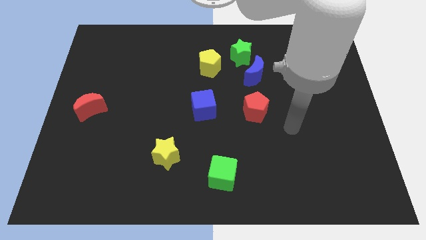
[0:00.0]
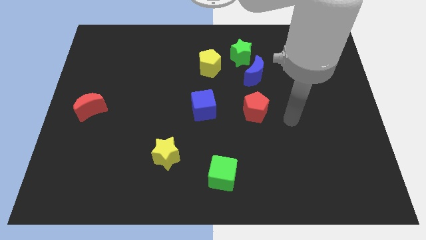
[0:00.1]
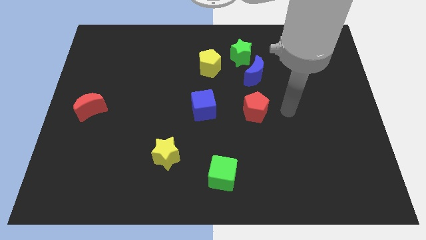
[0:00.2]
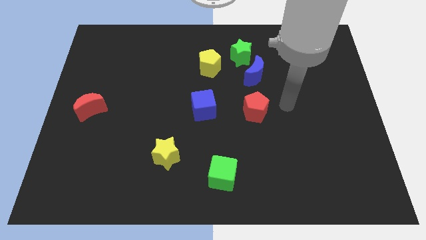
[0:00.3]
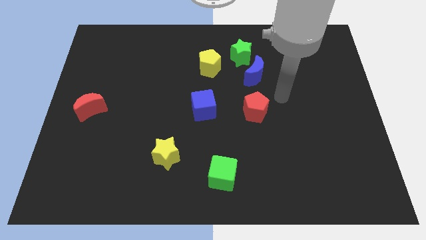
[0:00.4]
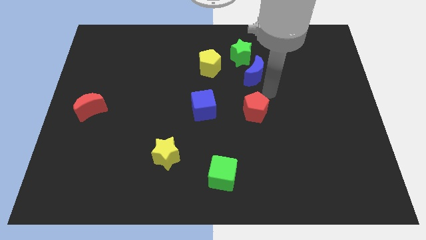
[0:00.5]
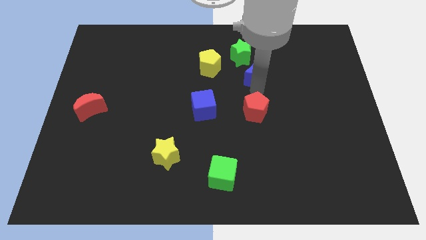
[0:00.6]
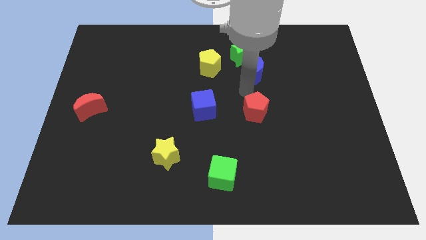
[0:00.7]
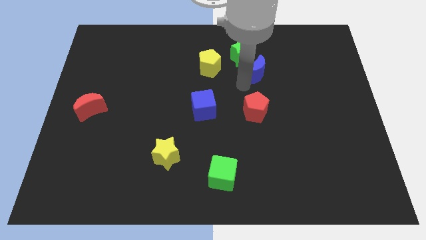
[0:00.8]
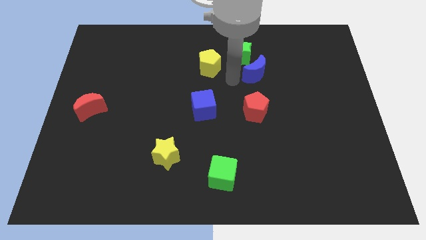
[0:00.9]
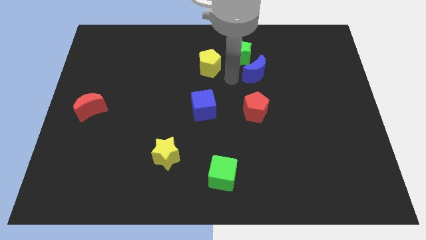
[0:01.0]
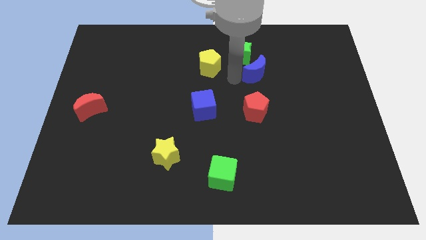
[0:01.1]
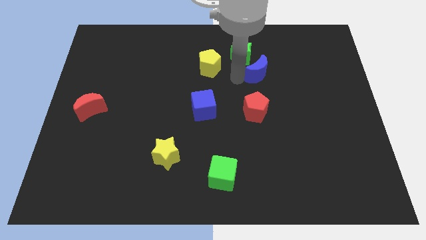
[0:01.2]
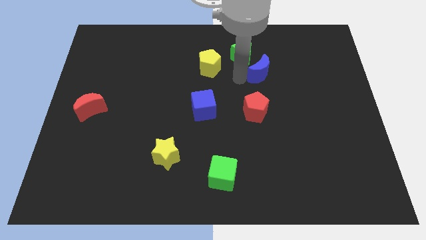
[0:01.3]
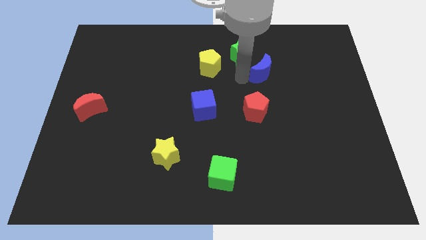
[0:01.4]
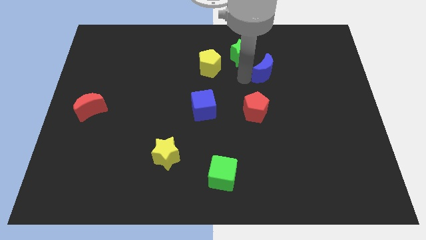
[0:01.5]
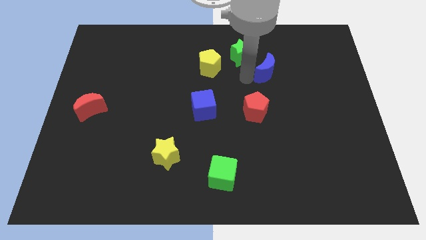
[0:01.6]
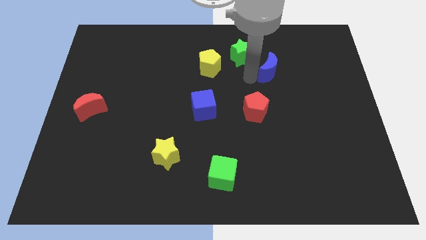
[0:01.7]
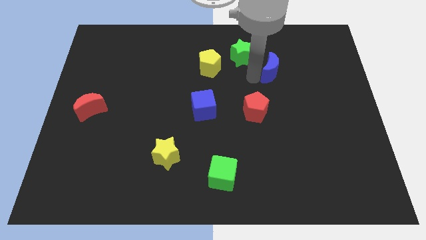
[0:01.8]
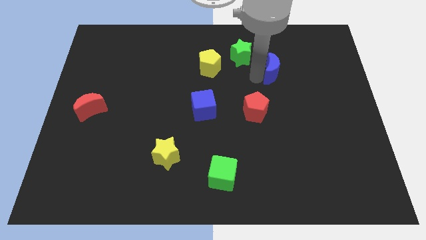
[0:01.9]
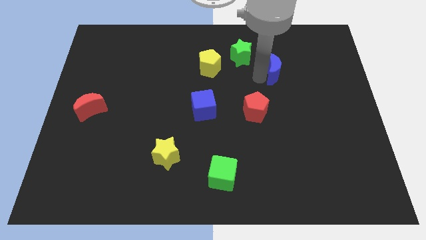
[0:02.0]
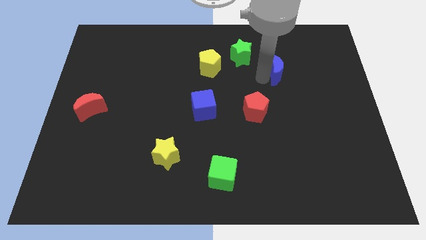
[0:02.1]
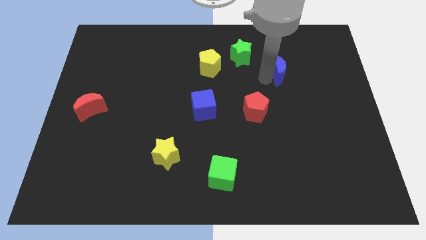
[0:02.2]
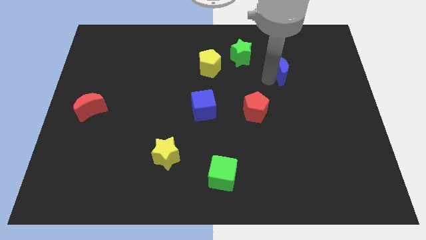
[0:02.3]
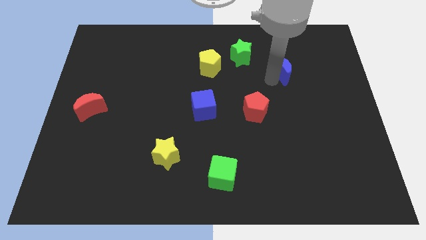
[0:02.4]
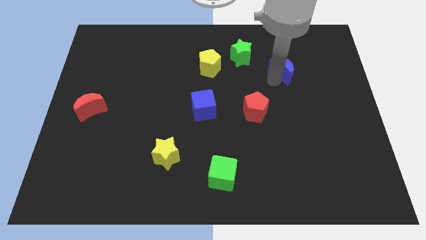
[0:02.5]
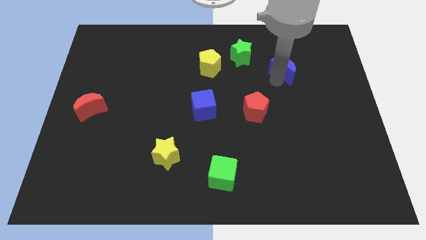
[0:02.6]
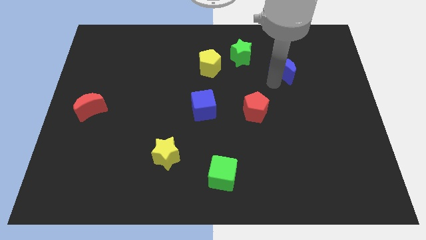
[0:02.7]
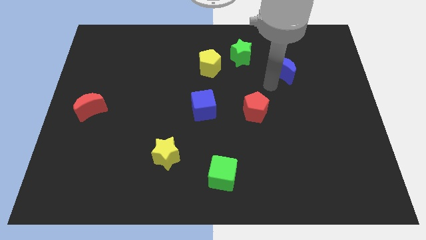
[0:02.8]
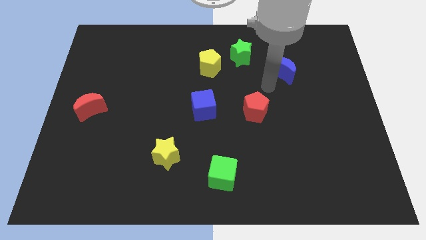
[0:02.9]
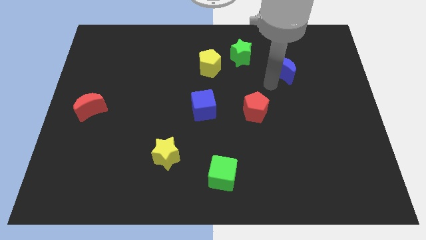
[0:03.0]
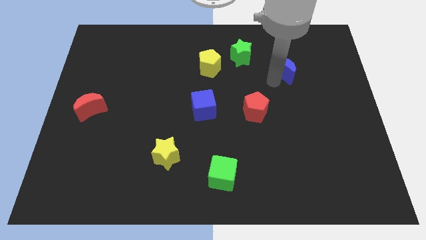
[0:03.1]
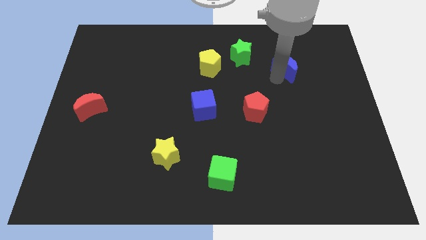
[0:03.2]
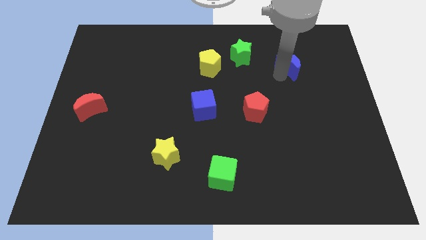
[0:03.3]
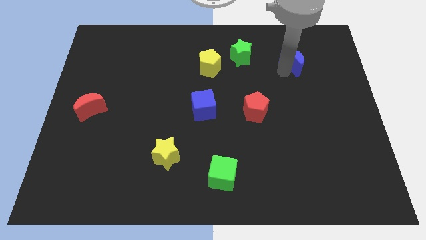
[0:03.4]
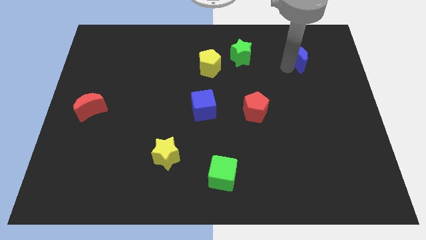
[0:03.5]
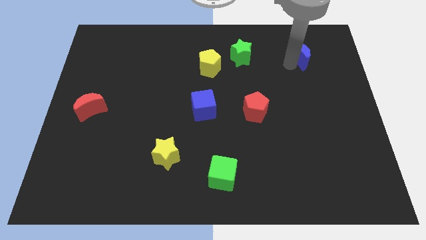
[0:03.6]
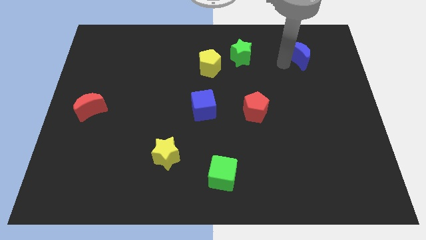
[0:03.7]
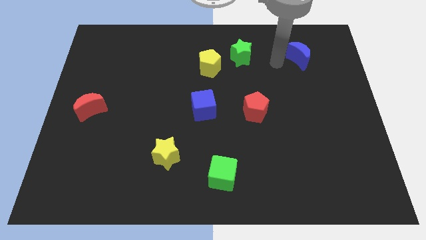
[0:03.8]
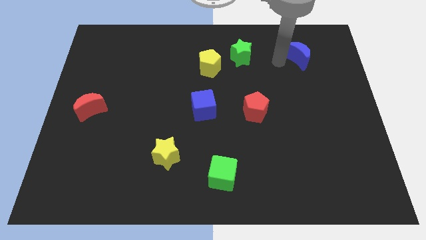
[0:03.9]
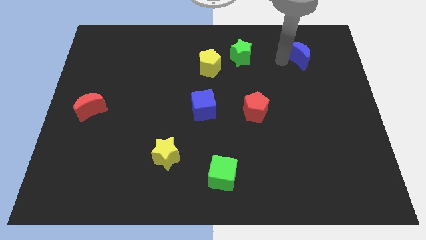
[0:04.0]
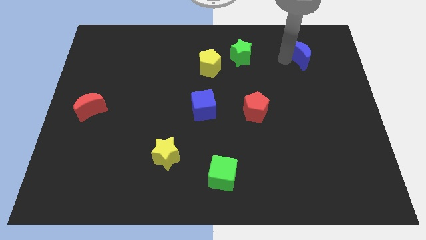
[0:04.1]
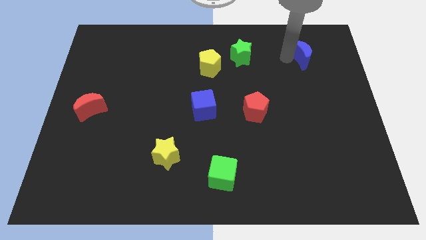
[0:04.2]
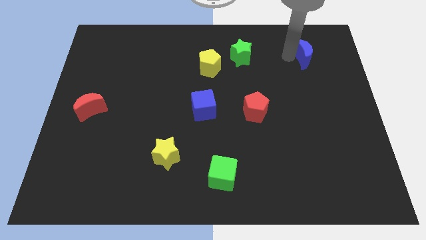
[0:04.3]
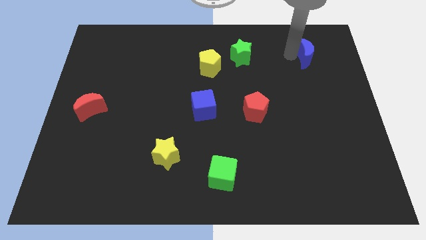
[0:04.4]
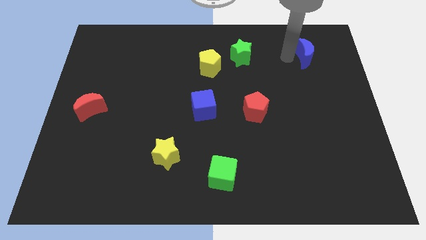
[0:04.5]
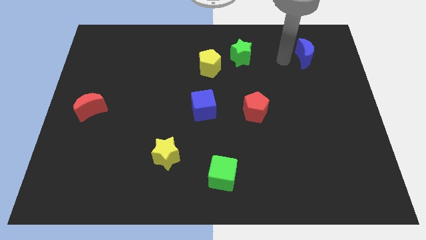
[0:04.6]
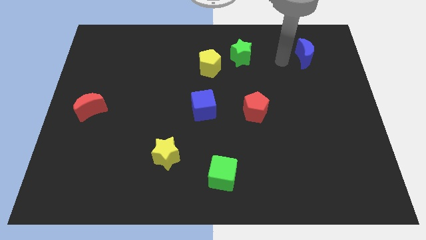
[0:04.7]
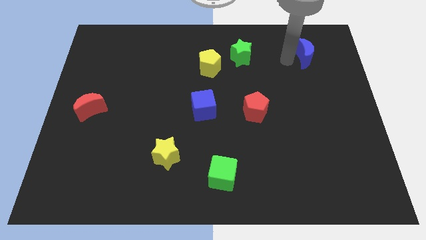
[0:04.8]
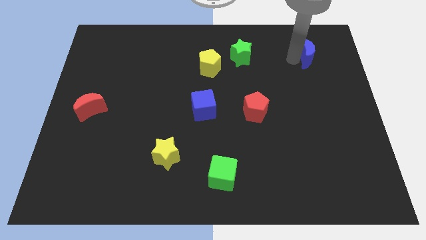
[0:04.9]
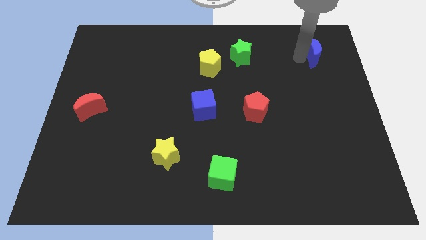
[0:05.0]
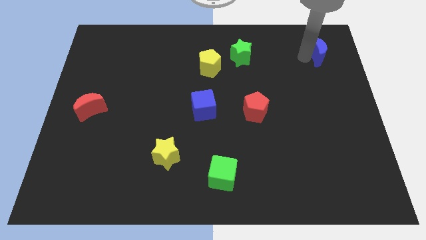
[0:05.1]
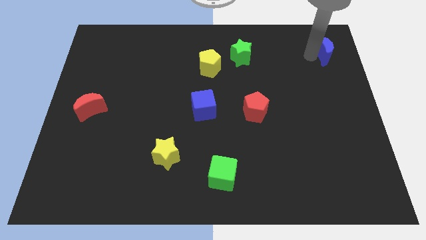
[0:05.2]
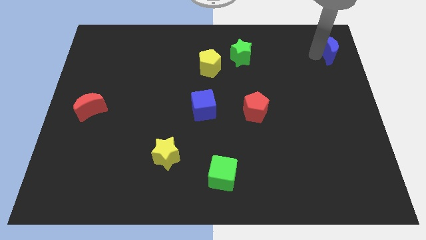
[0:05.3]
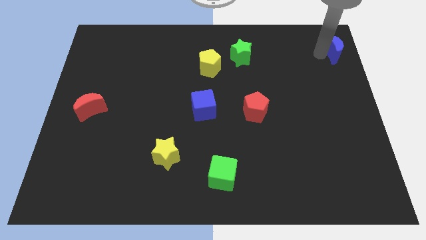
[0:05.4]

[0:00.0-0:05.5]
slide the blue moon to the top right

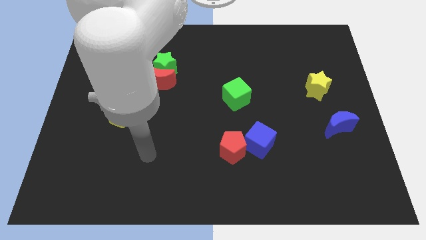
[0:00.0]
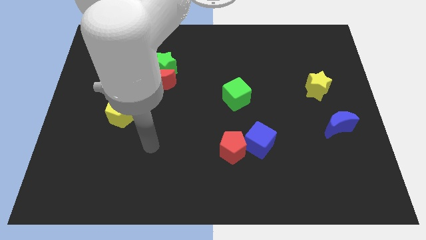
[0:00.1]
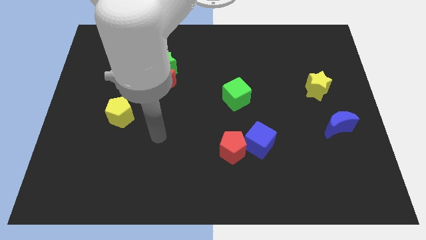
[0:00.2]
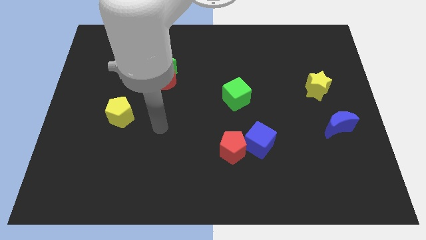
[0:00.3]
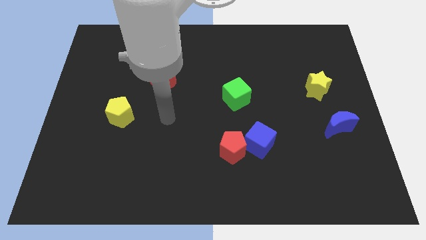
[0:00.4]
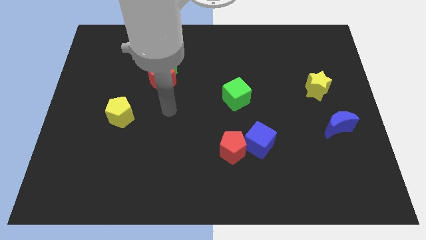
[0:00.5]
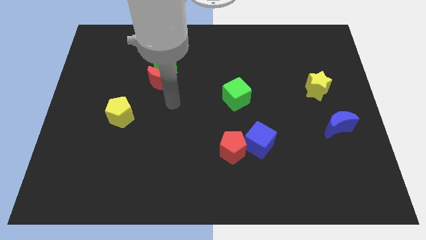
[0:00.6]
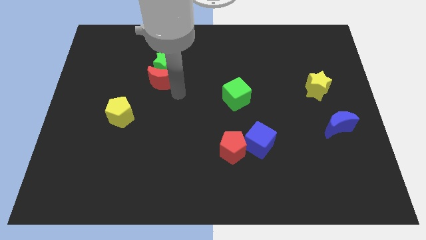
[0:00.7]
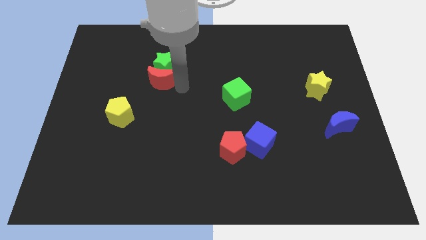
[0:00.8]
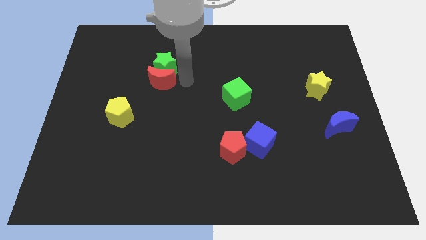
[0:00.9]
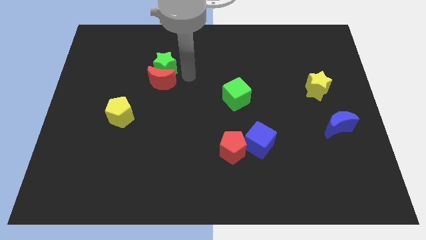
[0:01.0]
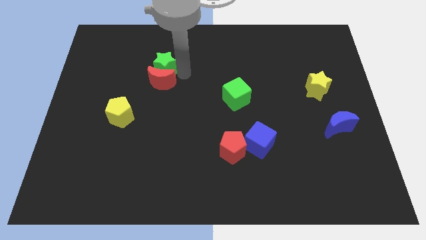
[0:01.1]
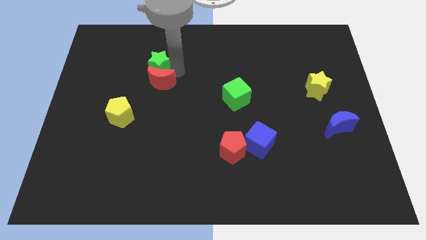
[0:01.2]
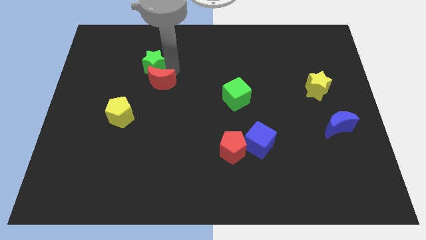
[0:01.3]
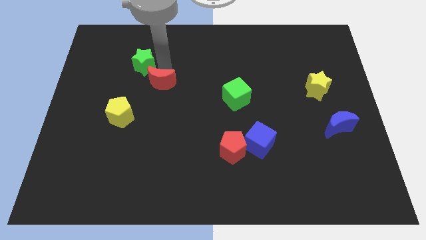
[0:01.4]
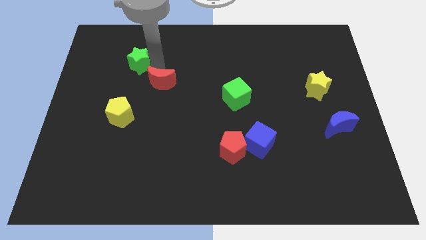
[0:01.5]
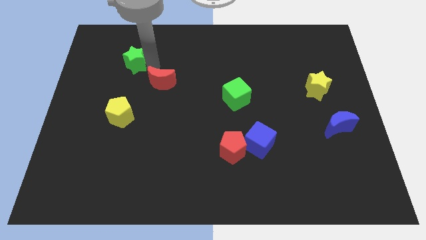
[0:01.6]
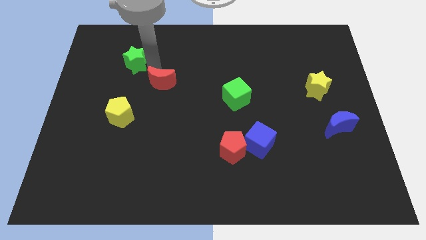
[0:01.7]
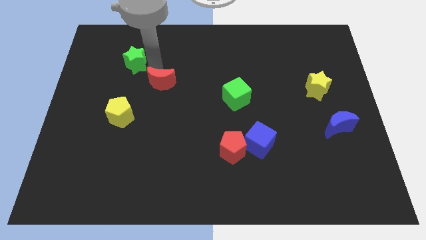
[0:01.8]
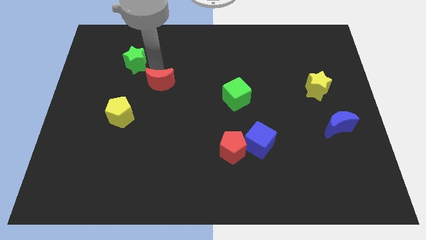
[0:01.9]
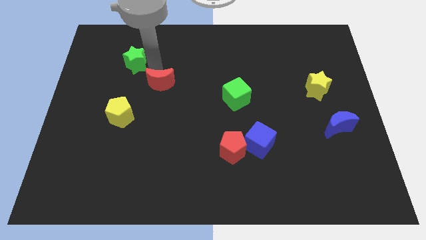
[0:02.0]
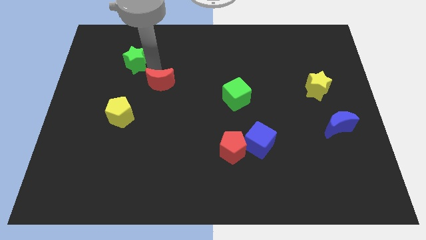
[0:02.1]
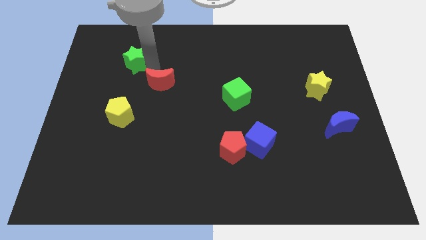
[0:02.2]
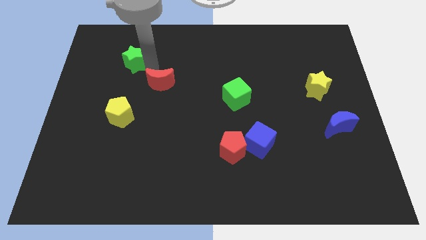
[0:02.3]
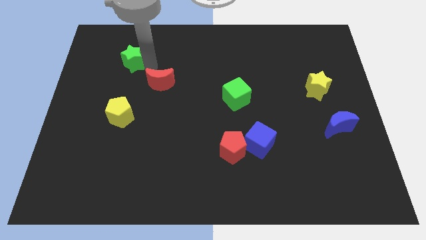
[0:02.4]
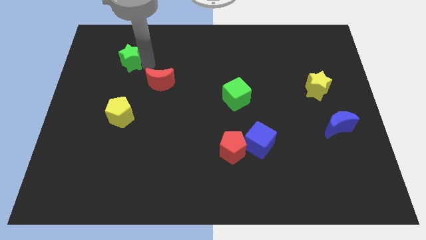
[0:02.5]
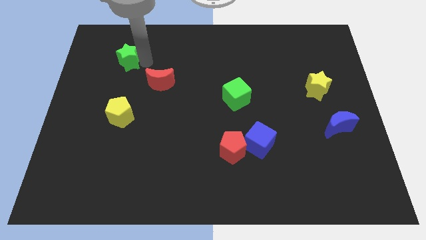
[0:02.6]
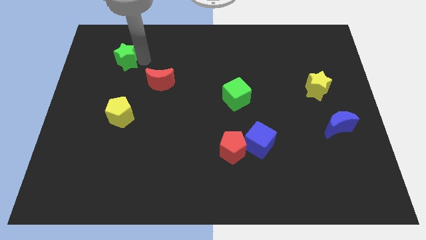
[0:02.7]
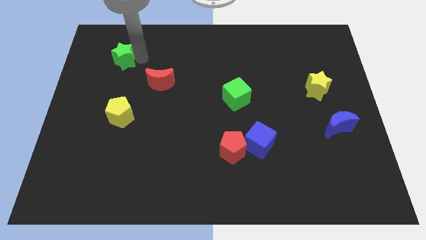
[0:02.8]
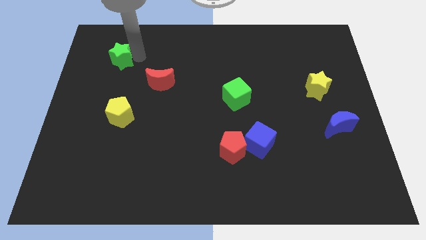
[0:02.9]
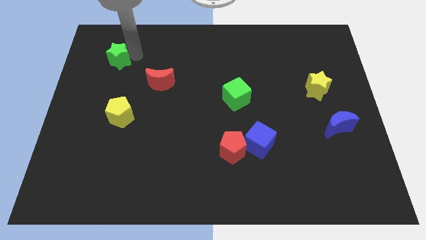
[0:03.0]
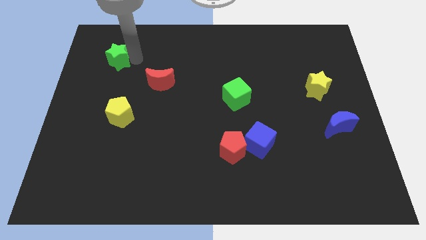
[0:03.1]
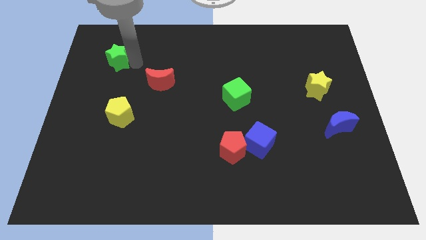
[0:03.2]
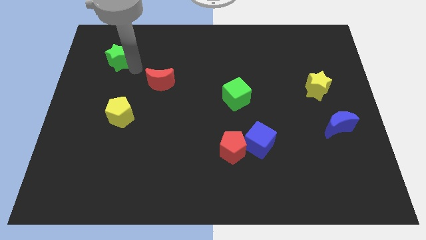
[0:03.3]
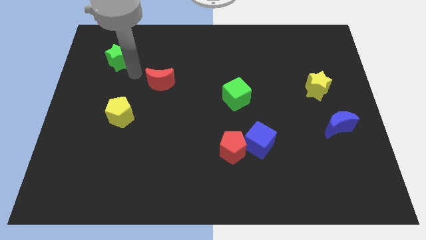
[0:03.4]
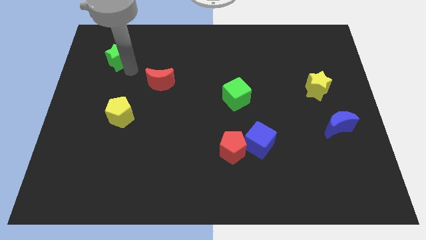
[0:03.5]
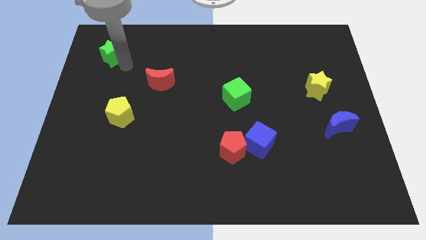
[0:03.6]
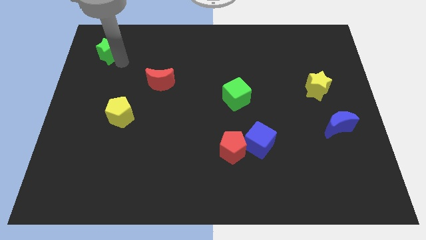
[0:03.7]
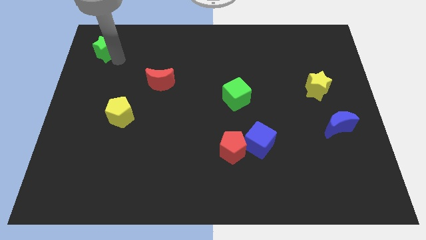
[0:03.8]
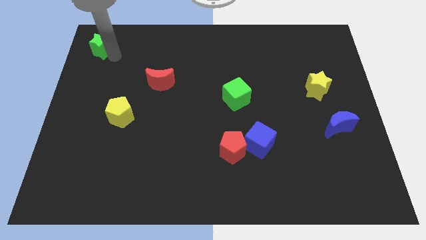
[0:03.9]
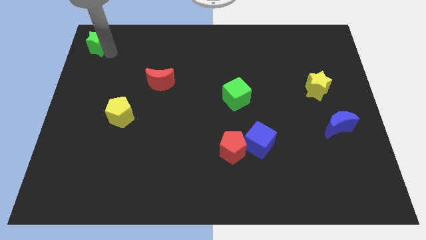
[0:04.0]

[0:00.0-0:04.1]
move the green star to the upper left corner
